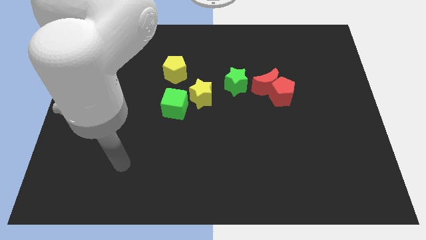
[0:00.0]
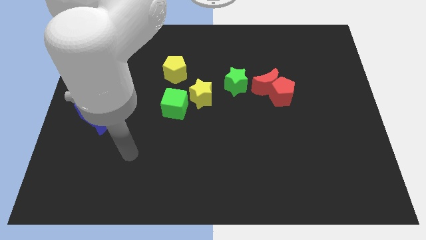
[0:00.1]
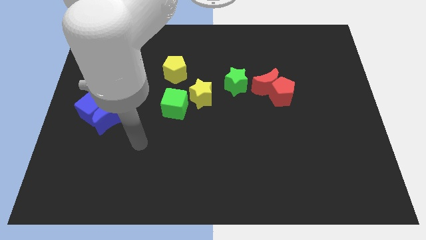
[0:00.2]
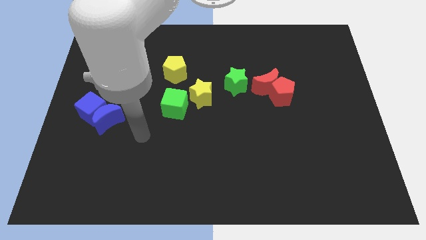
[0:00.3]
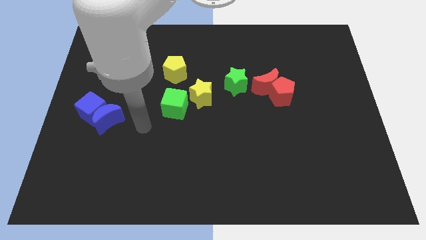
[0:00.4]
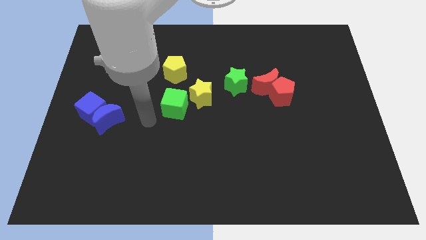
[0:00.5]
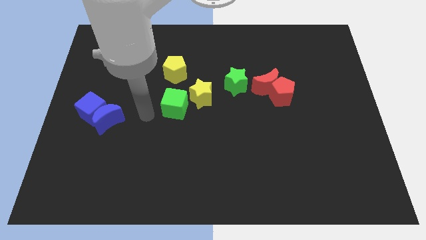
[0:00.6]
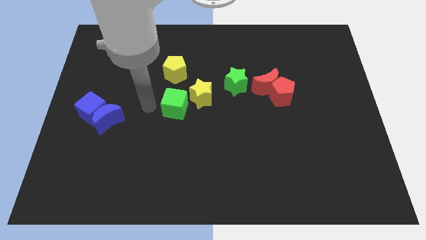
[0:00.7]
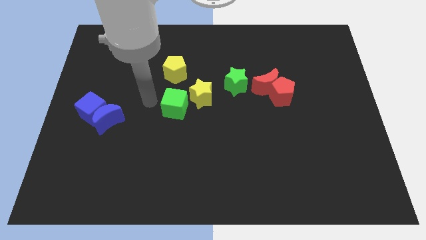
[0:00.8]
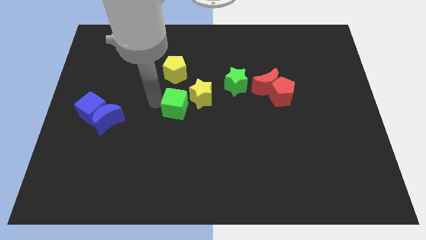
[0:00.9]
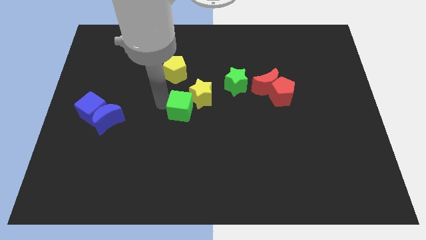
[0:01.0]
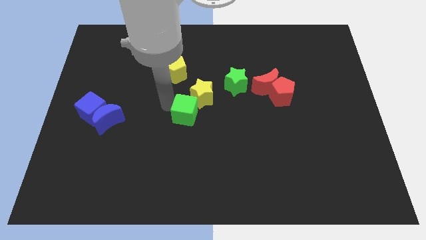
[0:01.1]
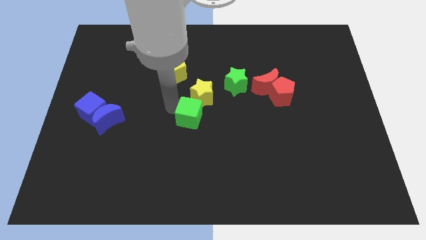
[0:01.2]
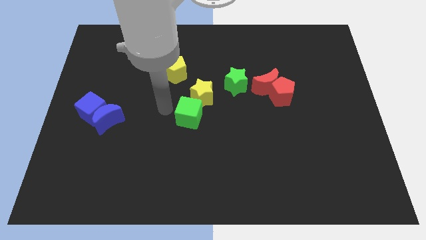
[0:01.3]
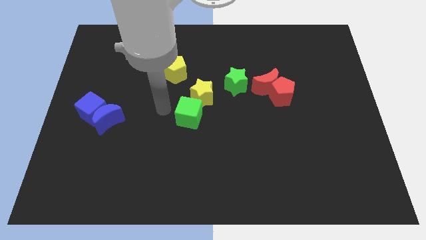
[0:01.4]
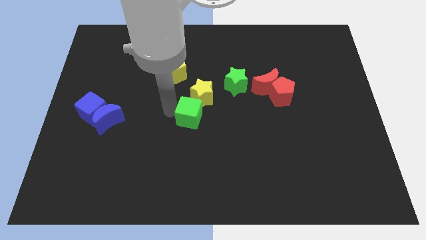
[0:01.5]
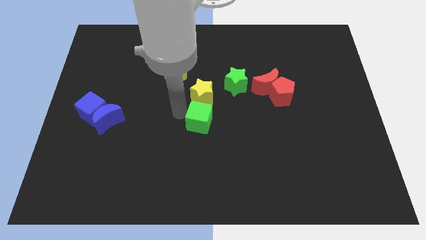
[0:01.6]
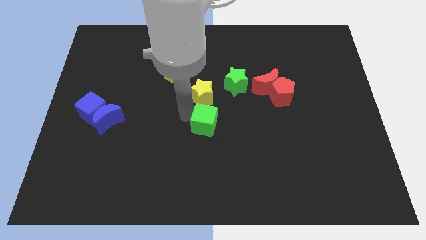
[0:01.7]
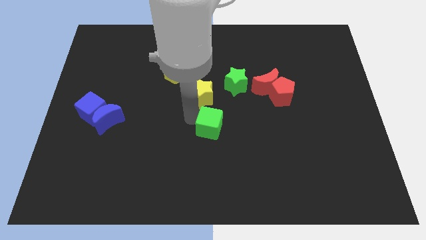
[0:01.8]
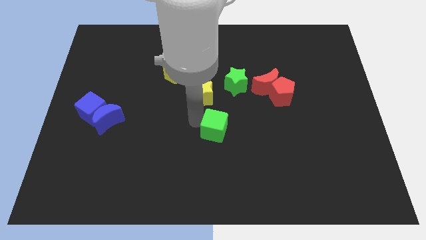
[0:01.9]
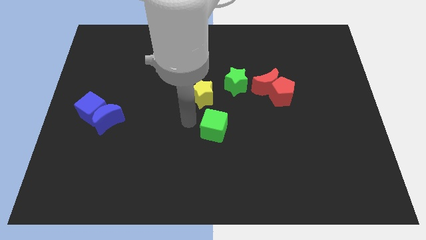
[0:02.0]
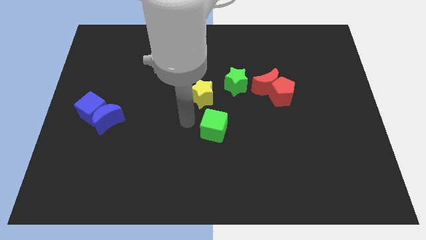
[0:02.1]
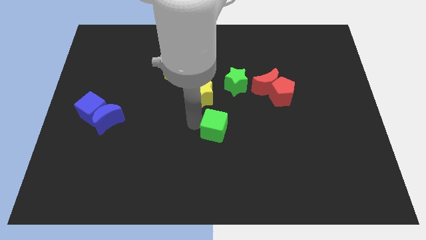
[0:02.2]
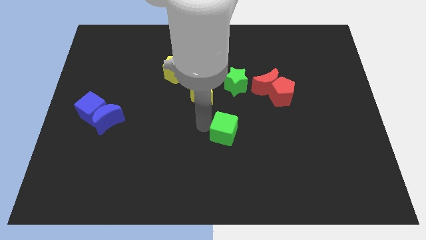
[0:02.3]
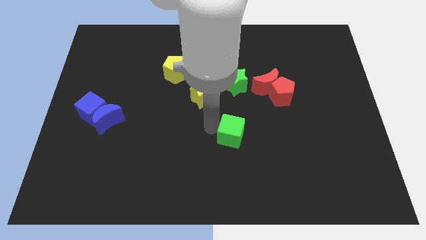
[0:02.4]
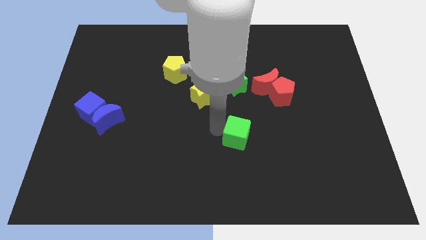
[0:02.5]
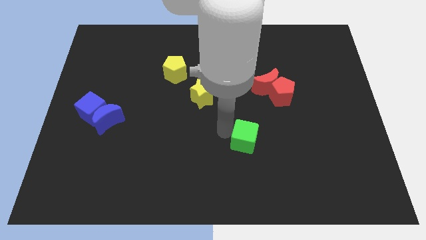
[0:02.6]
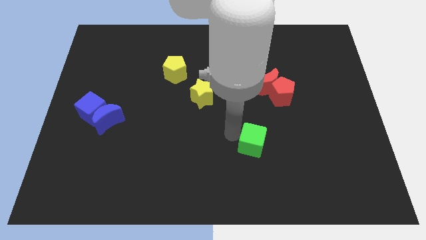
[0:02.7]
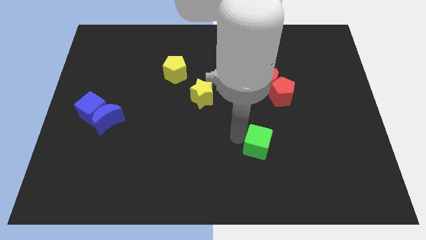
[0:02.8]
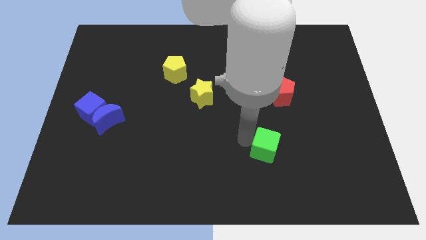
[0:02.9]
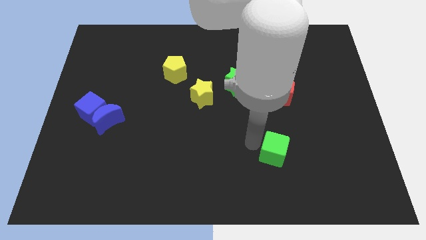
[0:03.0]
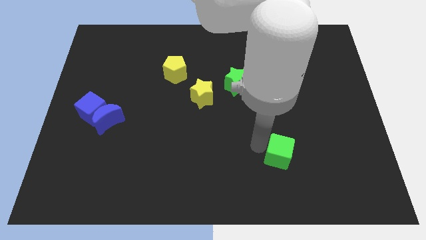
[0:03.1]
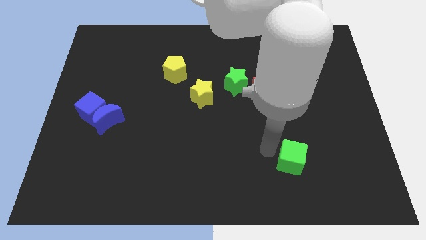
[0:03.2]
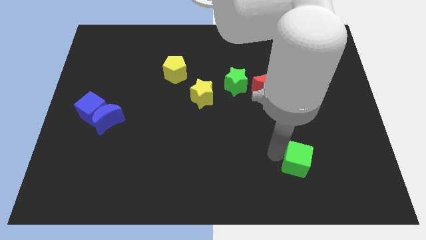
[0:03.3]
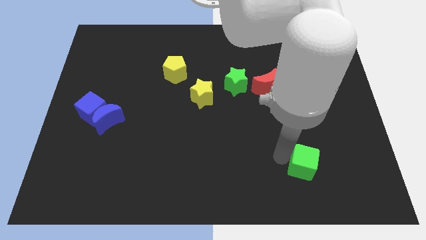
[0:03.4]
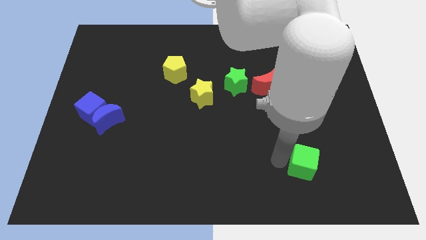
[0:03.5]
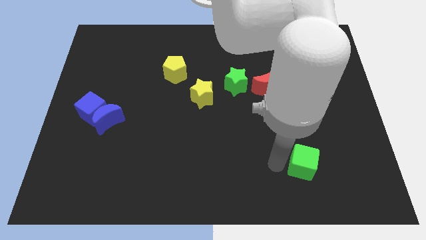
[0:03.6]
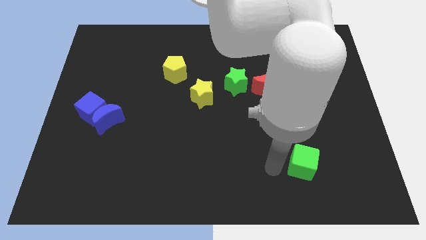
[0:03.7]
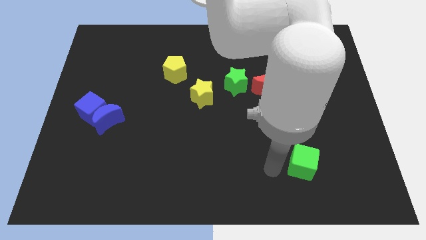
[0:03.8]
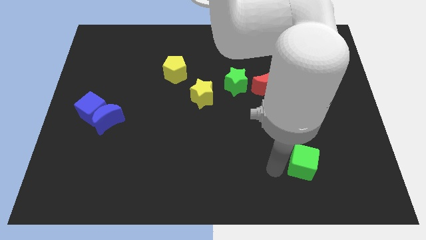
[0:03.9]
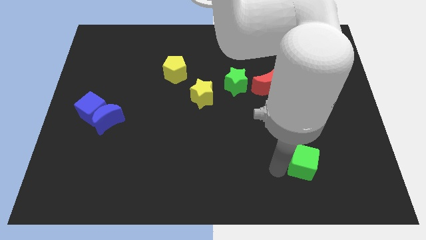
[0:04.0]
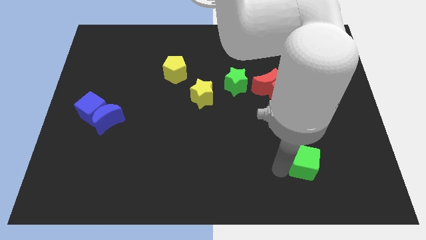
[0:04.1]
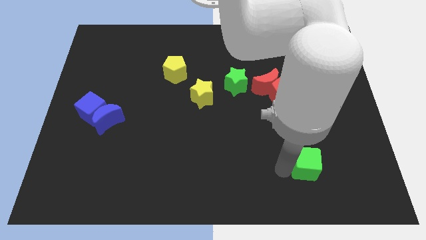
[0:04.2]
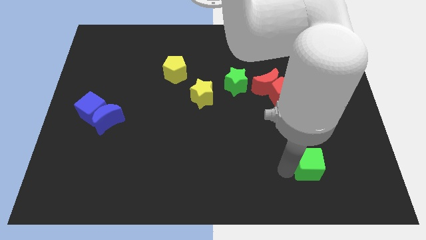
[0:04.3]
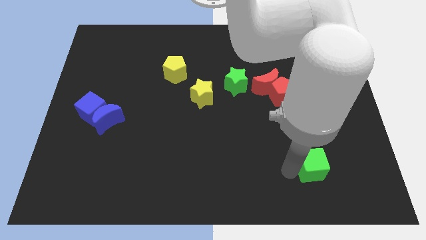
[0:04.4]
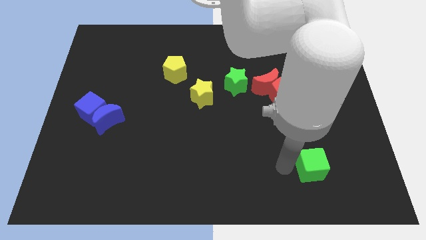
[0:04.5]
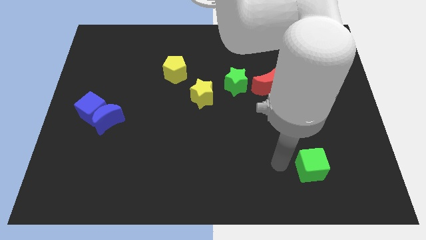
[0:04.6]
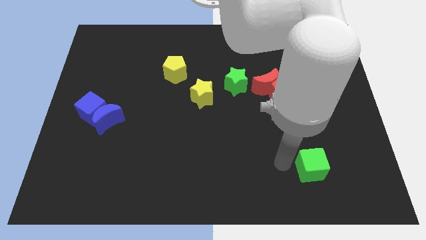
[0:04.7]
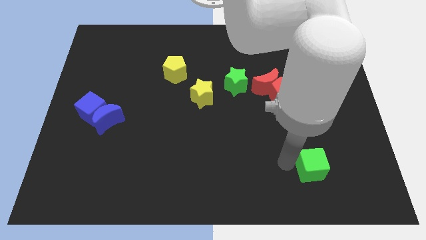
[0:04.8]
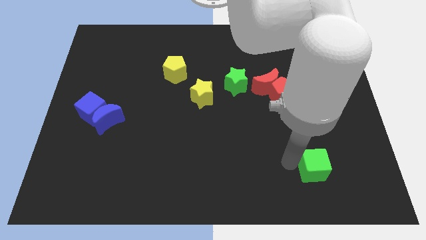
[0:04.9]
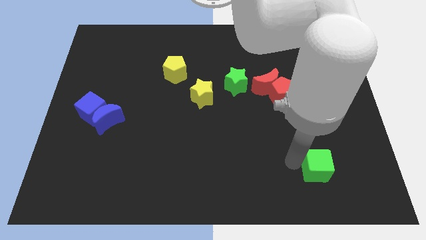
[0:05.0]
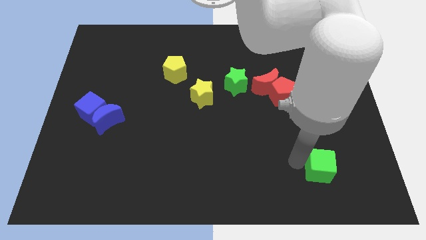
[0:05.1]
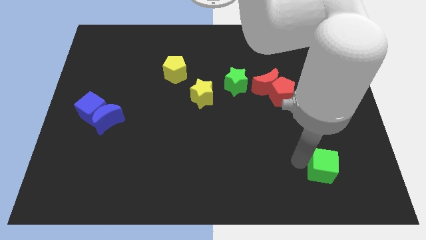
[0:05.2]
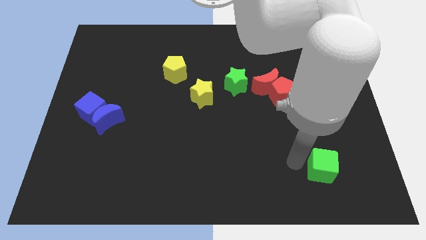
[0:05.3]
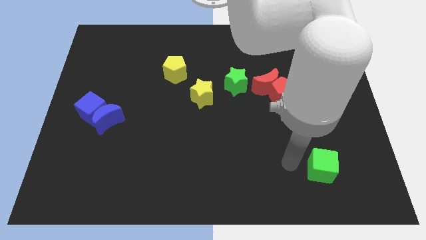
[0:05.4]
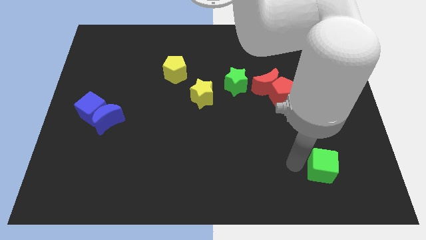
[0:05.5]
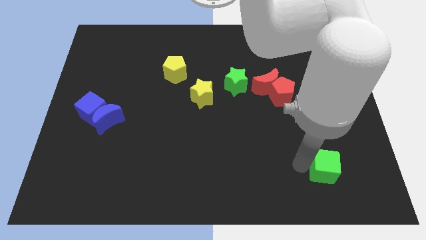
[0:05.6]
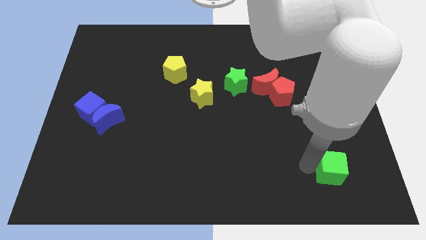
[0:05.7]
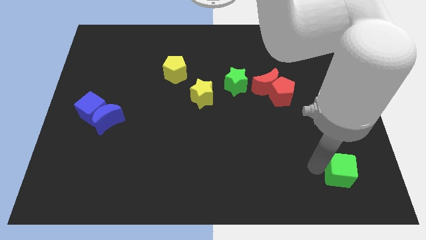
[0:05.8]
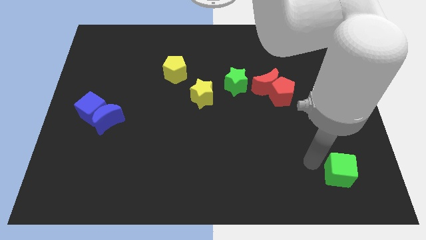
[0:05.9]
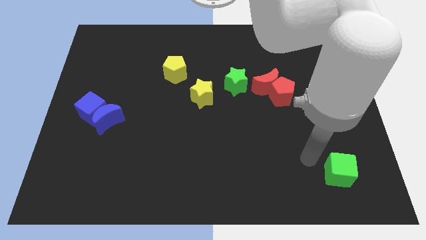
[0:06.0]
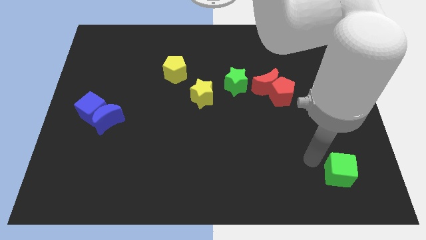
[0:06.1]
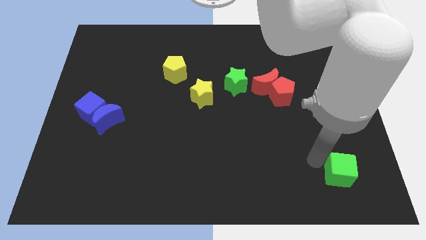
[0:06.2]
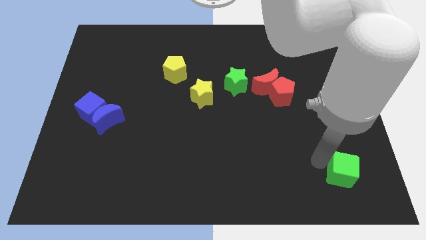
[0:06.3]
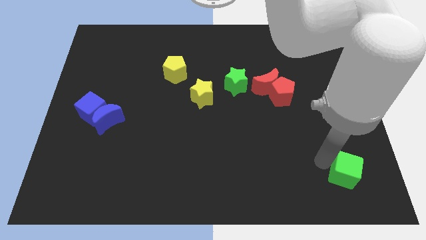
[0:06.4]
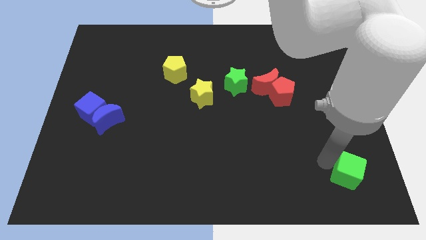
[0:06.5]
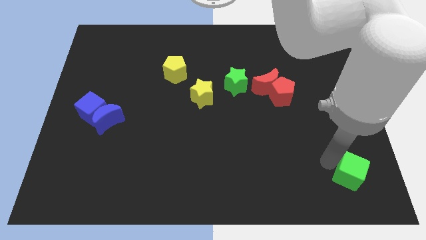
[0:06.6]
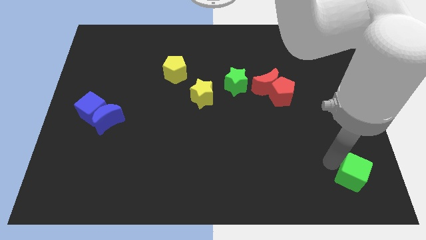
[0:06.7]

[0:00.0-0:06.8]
push the green cube to the bottom right corner

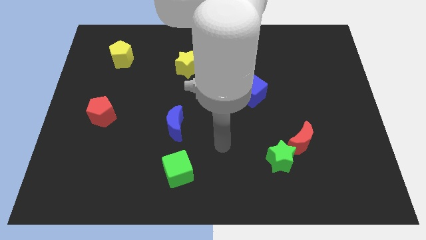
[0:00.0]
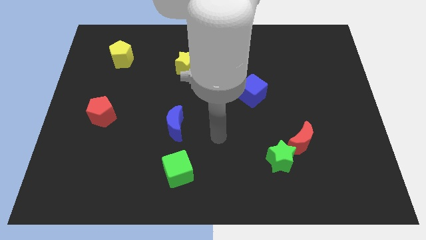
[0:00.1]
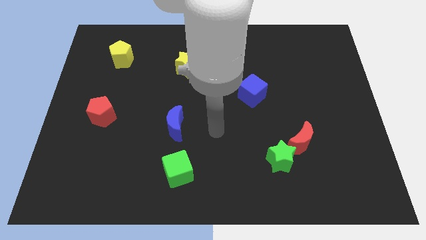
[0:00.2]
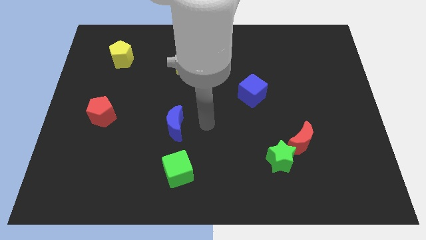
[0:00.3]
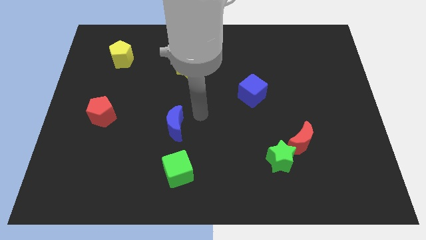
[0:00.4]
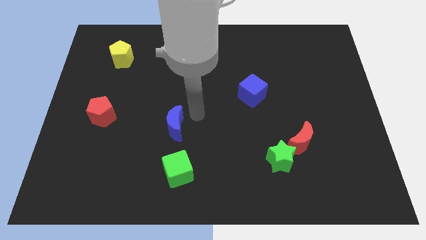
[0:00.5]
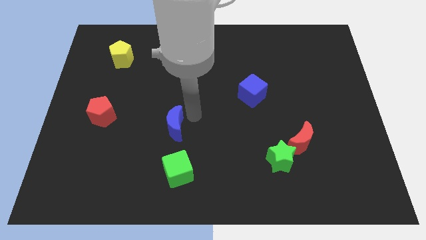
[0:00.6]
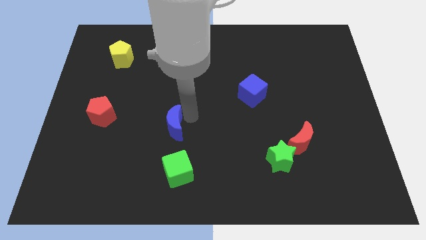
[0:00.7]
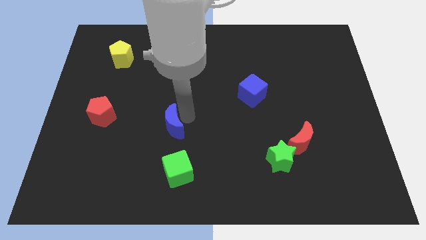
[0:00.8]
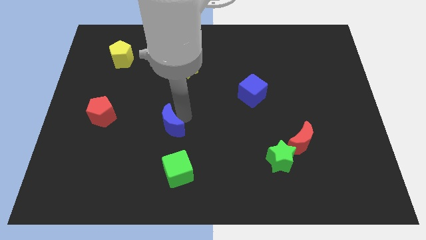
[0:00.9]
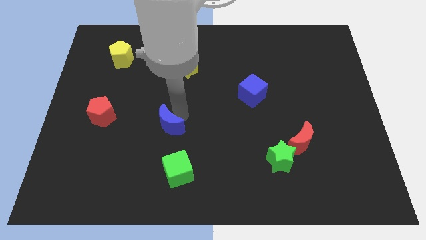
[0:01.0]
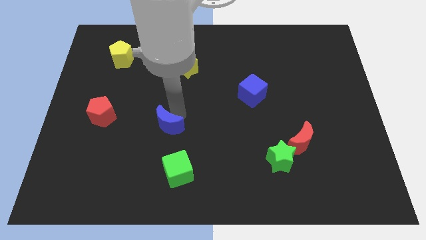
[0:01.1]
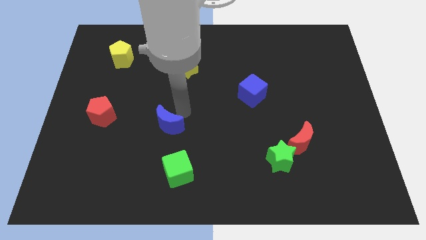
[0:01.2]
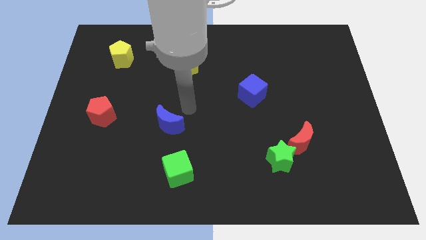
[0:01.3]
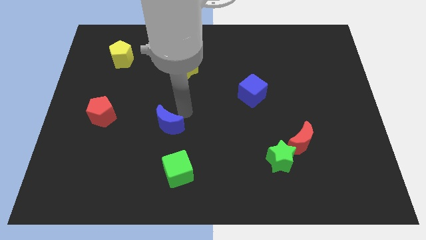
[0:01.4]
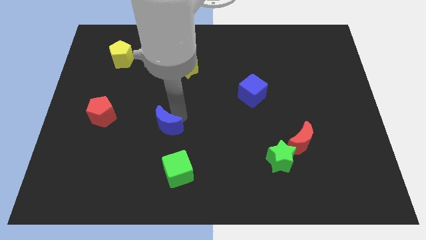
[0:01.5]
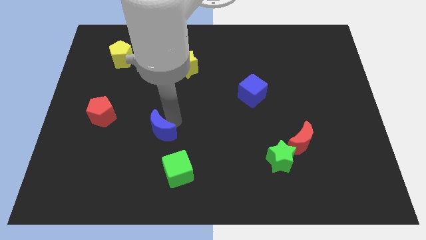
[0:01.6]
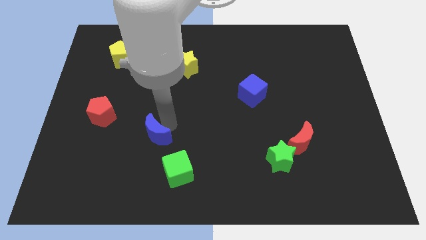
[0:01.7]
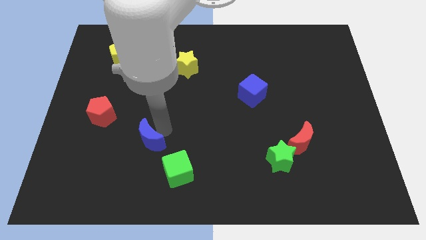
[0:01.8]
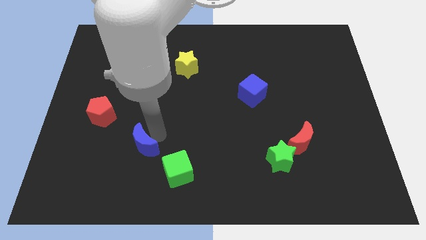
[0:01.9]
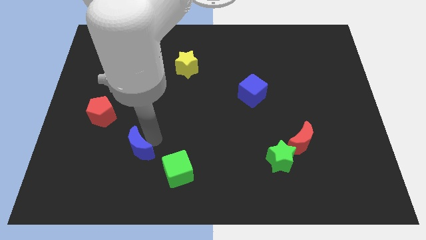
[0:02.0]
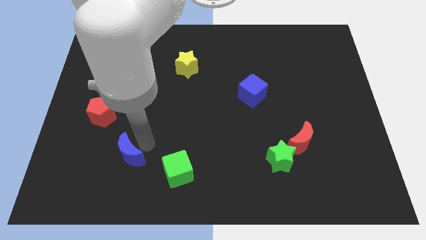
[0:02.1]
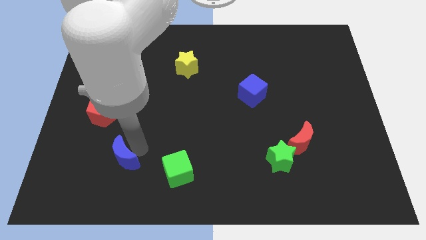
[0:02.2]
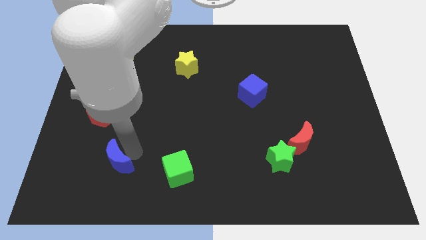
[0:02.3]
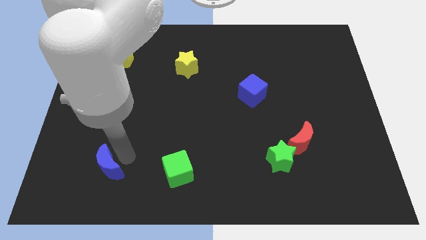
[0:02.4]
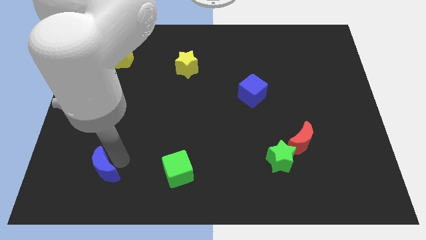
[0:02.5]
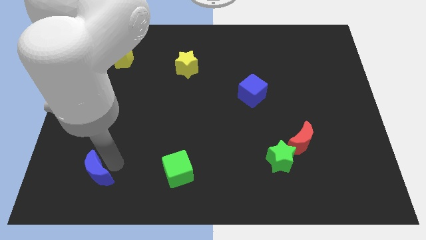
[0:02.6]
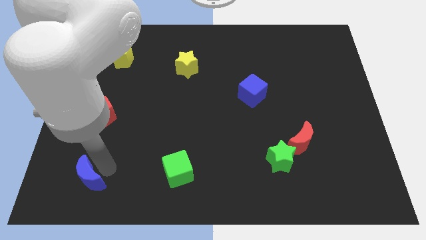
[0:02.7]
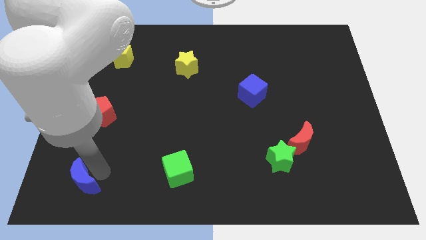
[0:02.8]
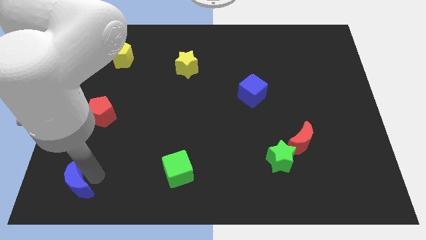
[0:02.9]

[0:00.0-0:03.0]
push the blue moon to the bottom left of the board
